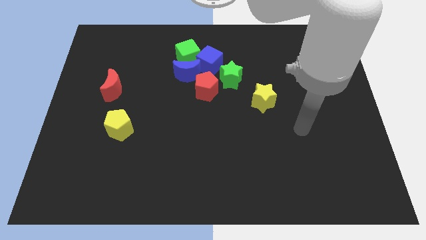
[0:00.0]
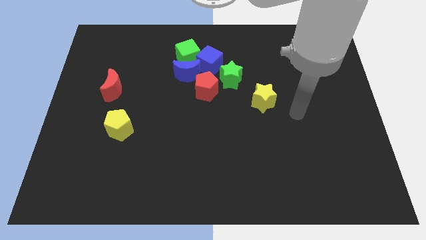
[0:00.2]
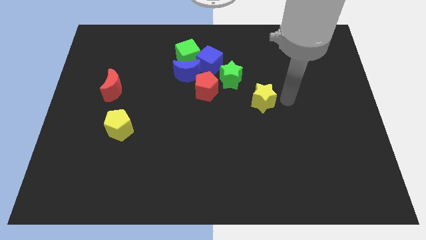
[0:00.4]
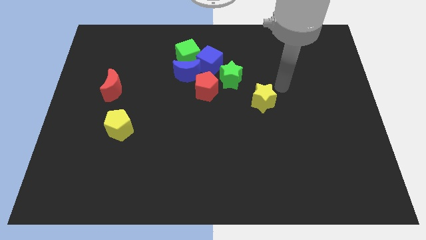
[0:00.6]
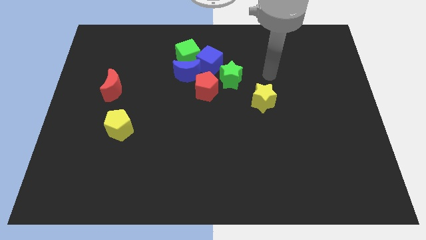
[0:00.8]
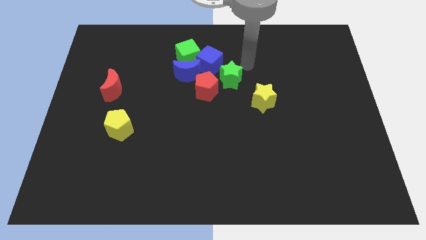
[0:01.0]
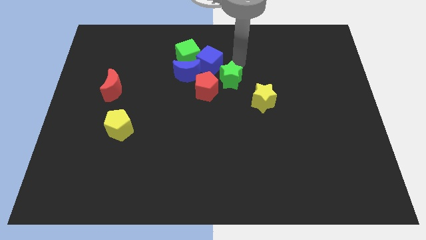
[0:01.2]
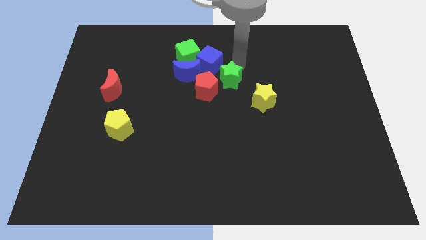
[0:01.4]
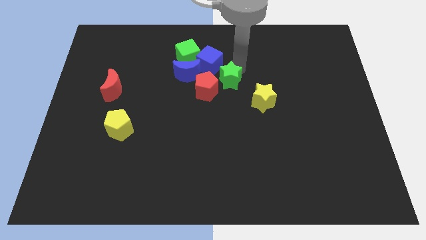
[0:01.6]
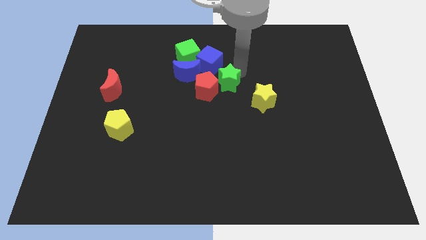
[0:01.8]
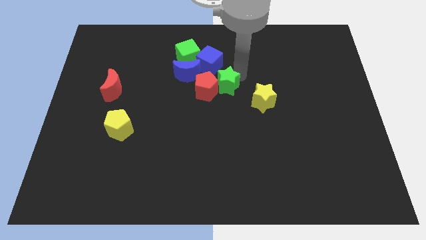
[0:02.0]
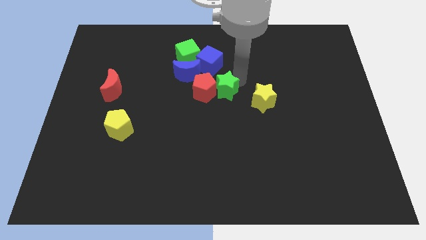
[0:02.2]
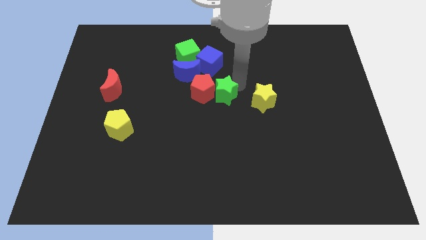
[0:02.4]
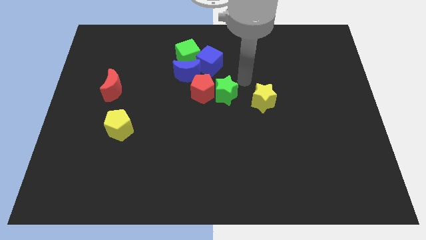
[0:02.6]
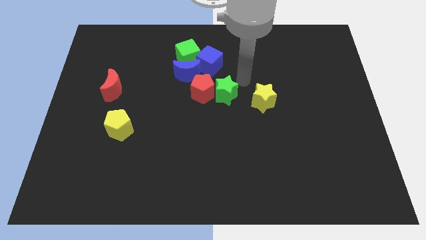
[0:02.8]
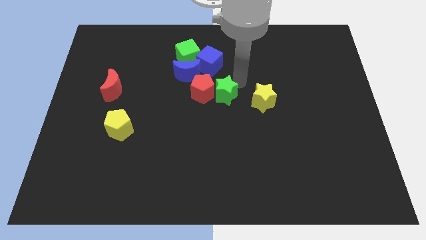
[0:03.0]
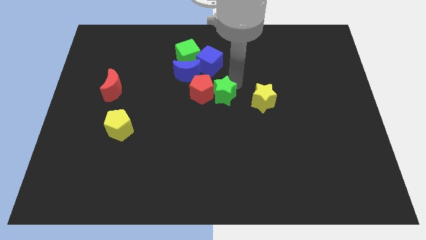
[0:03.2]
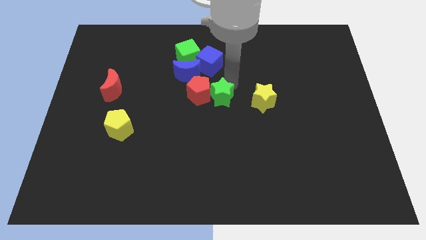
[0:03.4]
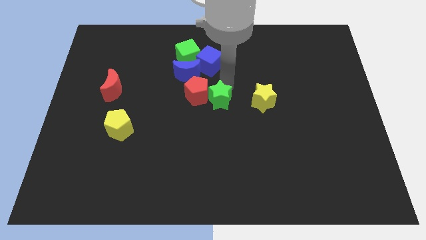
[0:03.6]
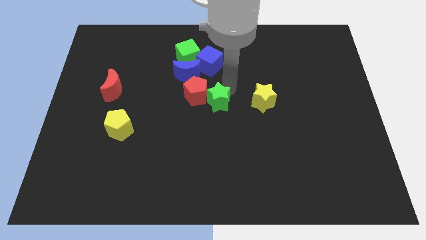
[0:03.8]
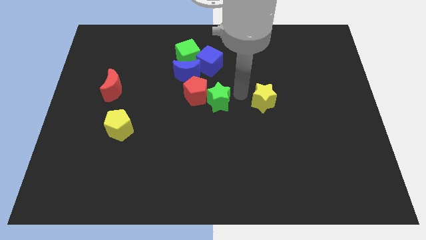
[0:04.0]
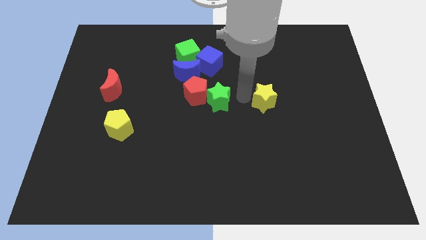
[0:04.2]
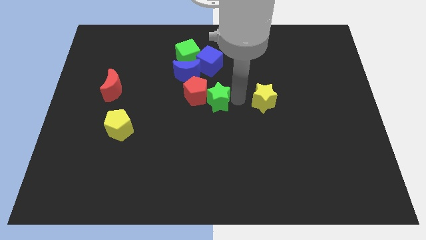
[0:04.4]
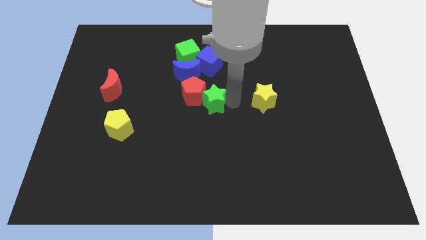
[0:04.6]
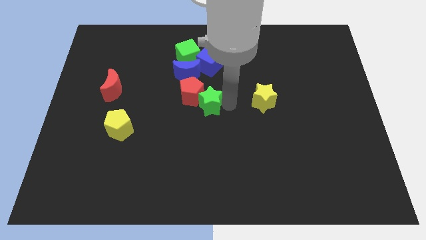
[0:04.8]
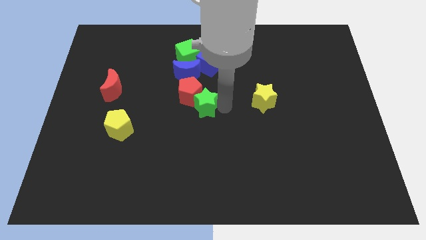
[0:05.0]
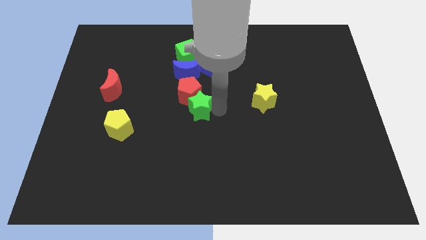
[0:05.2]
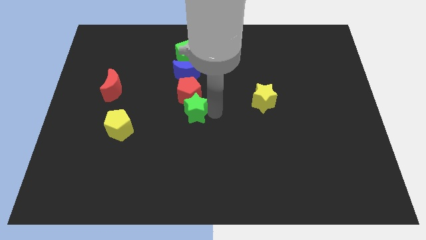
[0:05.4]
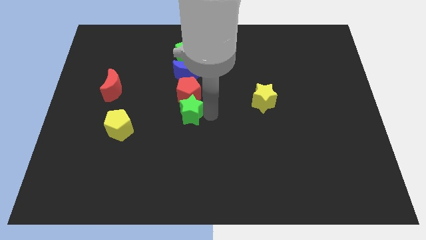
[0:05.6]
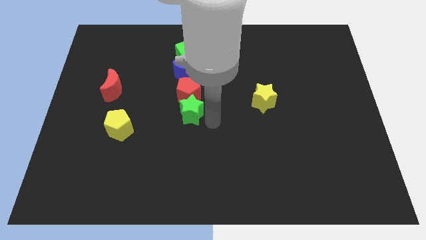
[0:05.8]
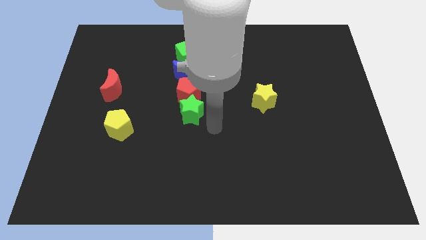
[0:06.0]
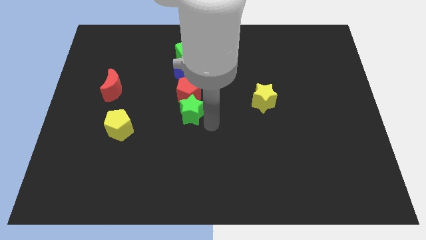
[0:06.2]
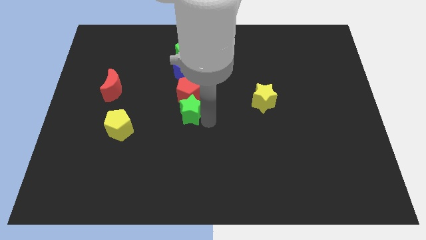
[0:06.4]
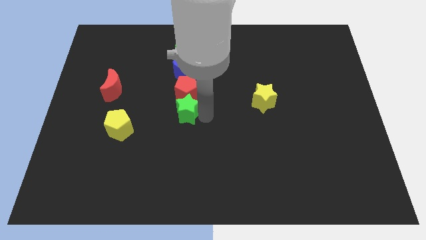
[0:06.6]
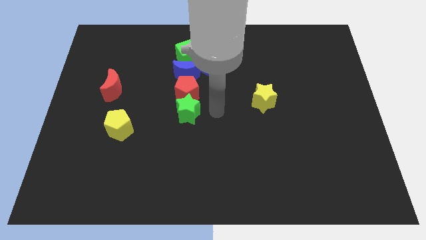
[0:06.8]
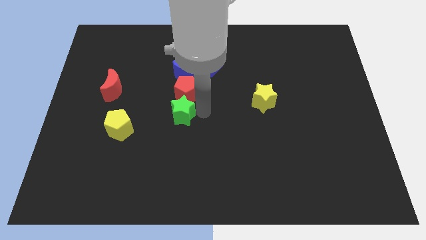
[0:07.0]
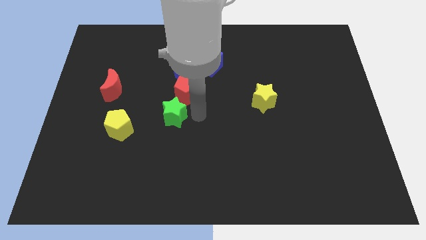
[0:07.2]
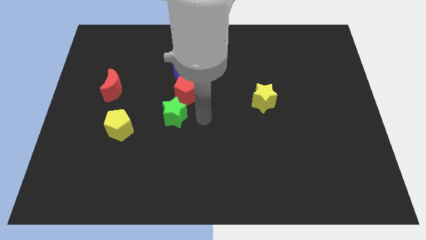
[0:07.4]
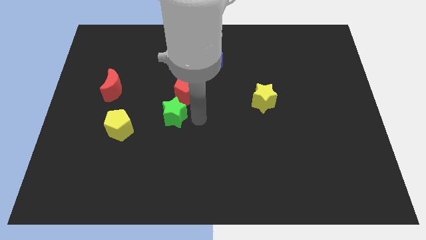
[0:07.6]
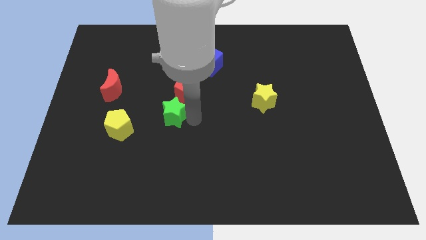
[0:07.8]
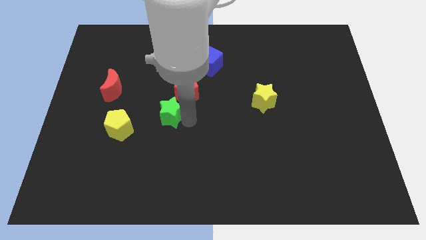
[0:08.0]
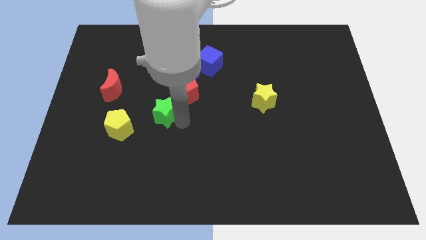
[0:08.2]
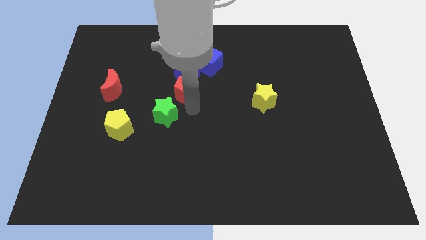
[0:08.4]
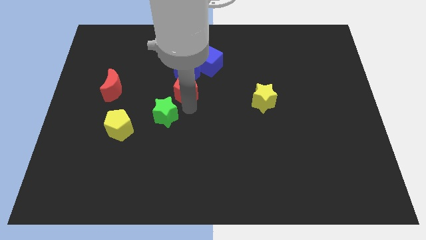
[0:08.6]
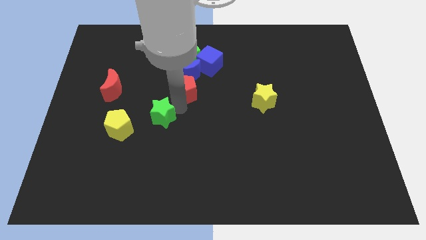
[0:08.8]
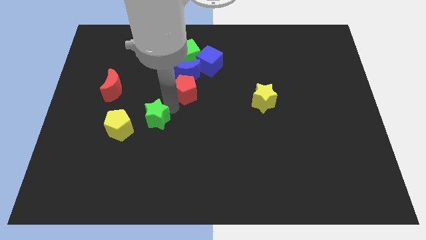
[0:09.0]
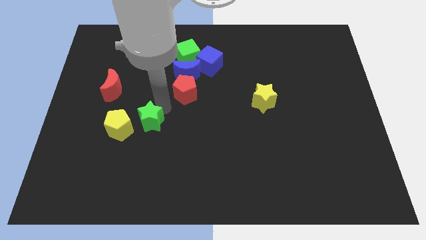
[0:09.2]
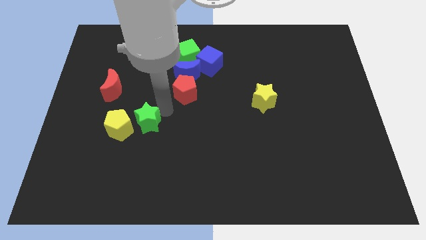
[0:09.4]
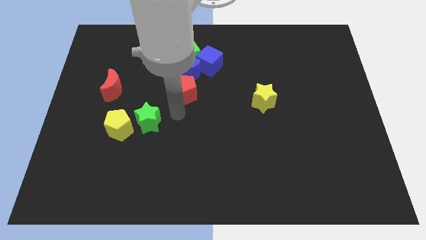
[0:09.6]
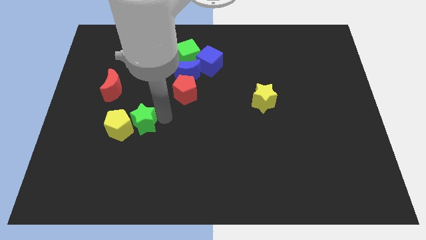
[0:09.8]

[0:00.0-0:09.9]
slide the green star to the yellow pentagon

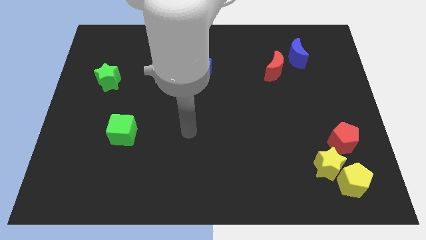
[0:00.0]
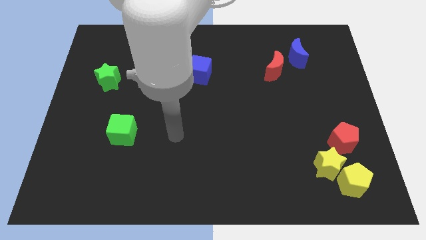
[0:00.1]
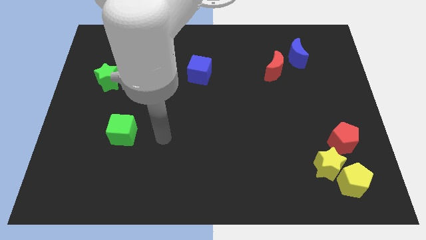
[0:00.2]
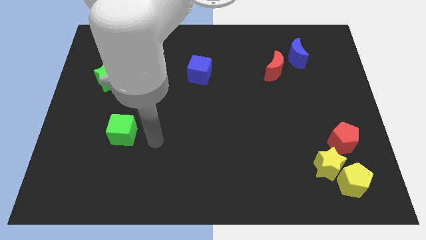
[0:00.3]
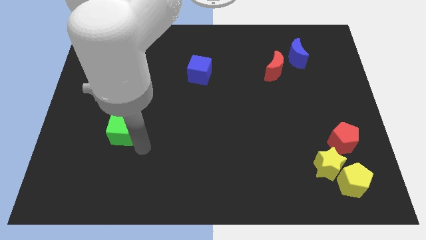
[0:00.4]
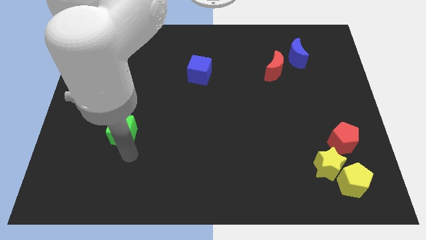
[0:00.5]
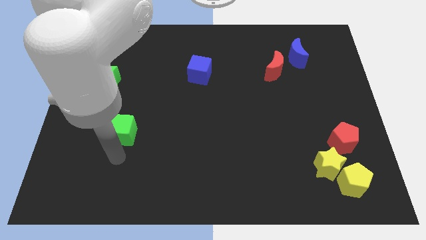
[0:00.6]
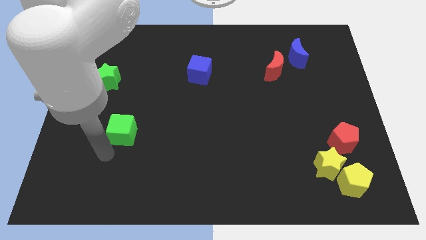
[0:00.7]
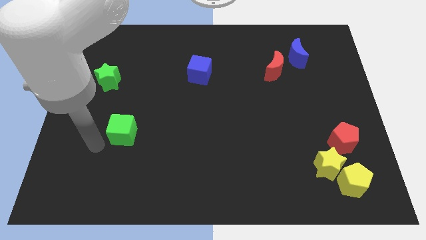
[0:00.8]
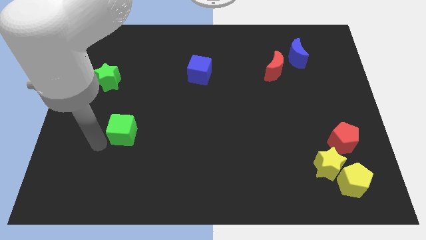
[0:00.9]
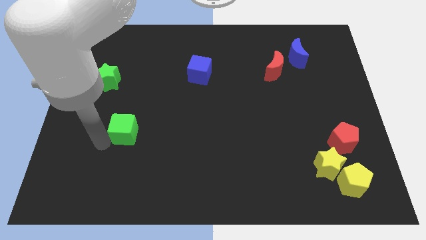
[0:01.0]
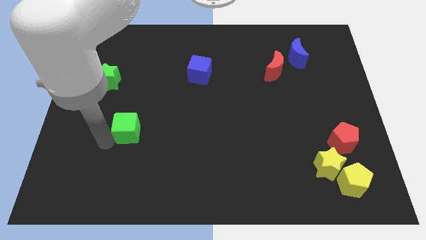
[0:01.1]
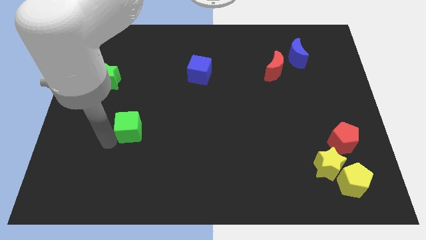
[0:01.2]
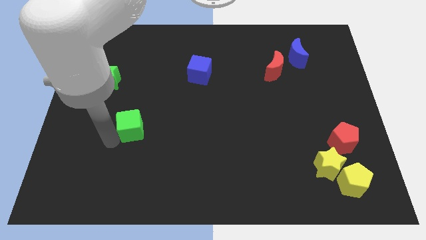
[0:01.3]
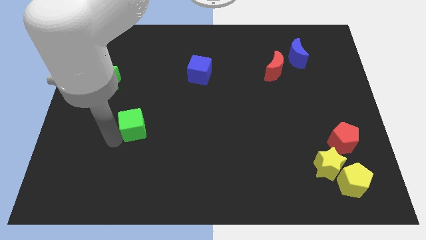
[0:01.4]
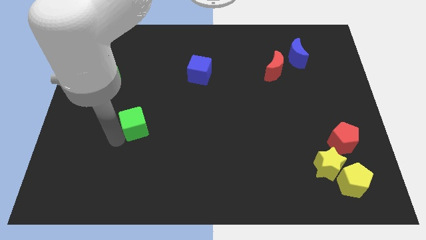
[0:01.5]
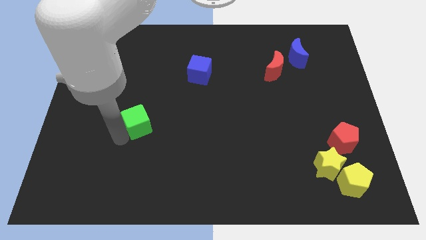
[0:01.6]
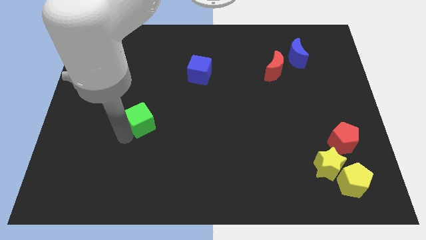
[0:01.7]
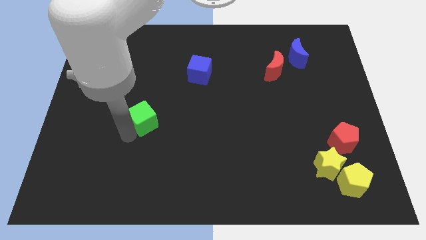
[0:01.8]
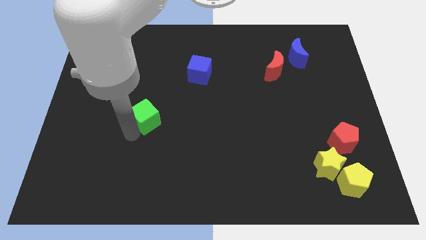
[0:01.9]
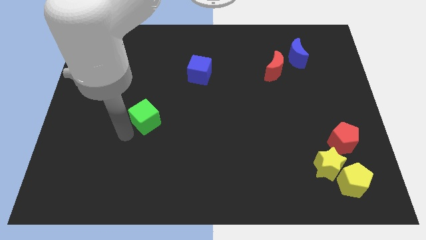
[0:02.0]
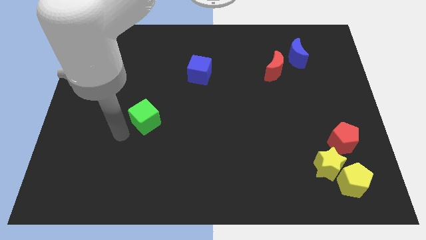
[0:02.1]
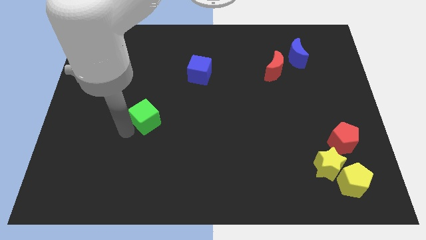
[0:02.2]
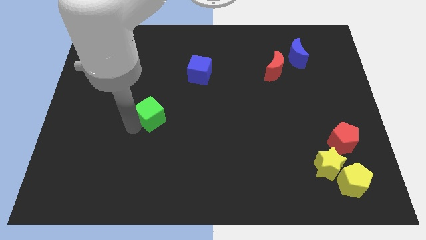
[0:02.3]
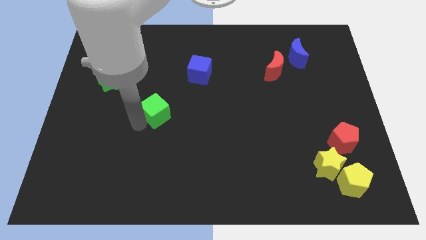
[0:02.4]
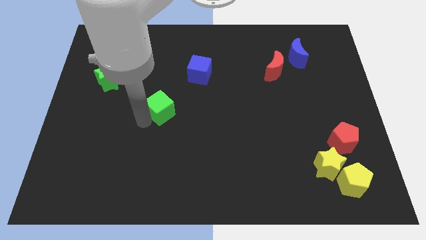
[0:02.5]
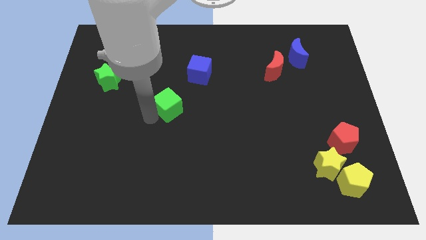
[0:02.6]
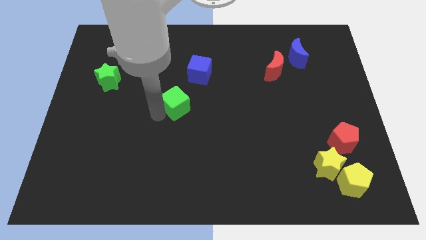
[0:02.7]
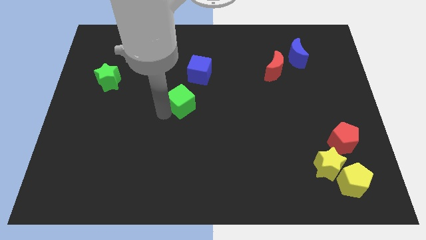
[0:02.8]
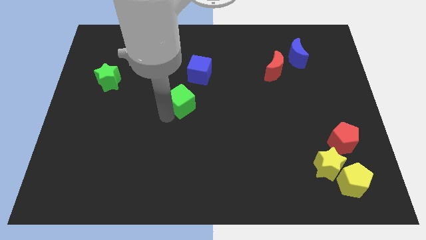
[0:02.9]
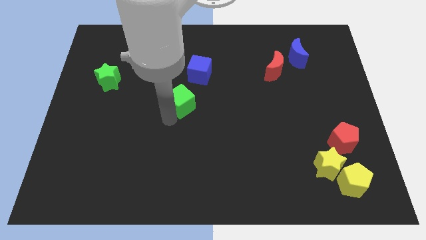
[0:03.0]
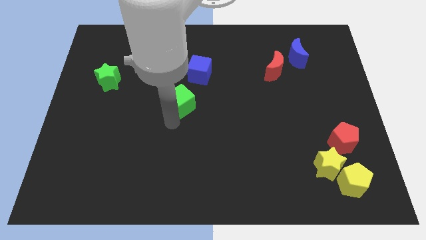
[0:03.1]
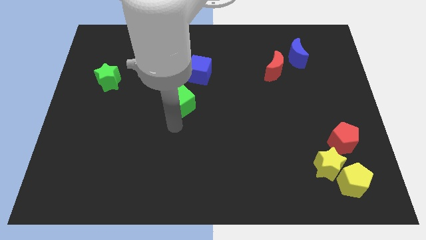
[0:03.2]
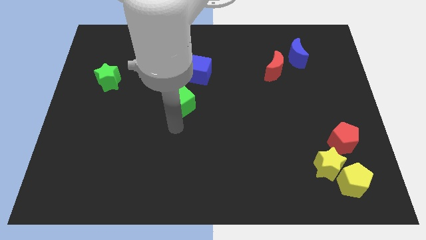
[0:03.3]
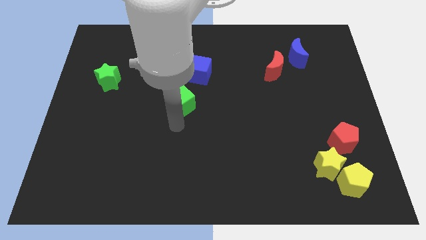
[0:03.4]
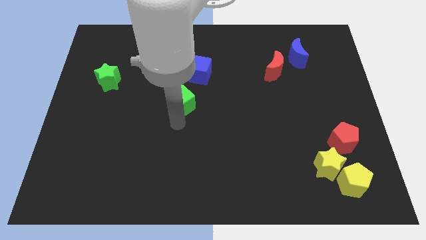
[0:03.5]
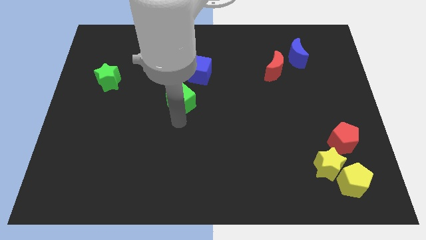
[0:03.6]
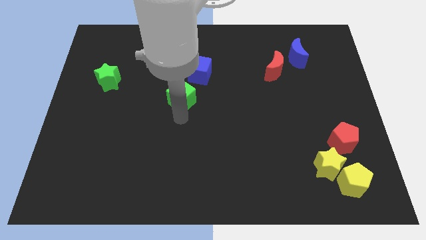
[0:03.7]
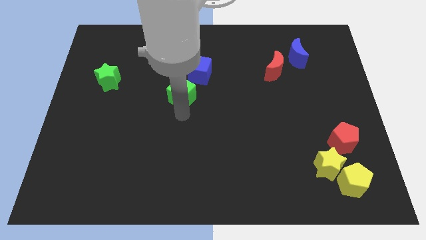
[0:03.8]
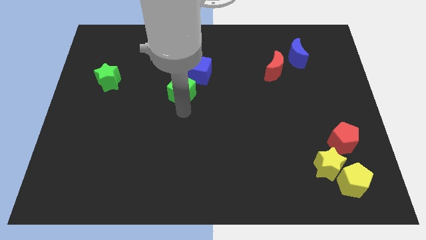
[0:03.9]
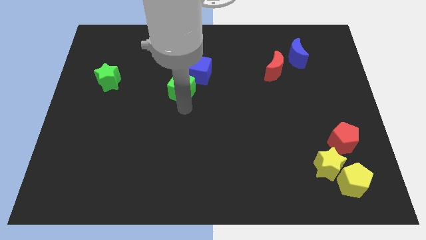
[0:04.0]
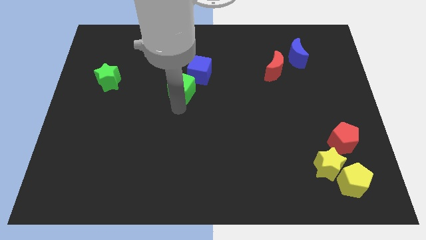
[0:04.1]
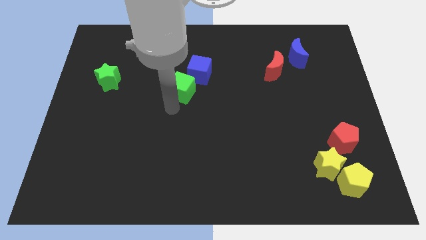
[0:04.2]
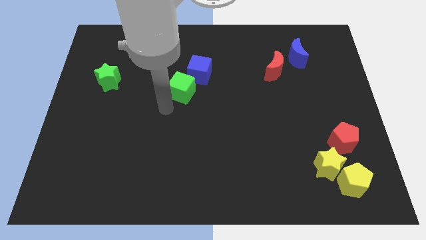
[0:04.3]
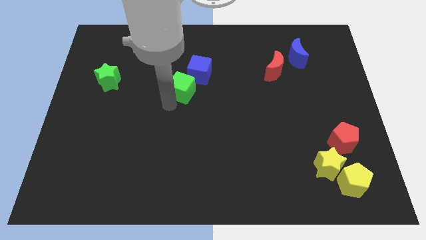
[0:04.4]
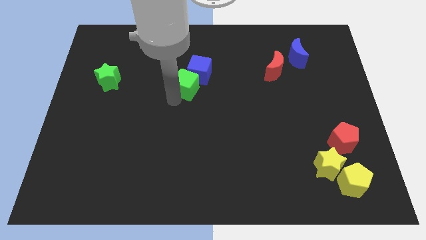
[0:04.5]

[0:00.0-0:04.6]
put the green cube close to the blue cube
